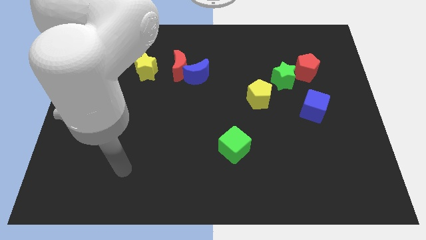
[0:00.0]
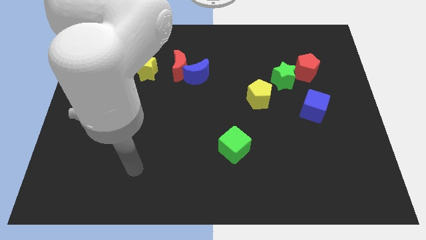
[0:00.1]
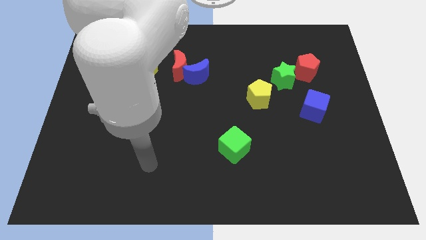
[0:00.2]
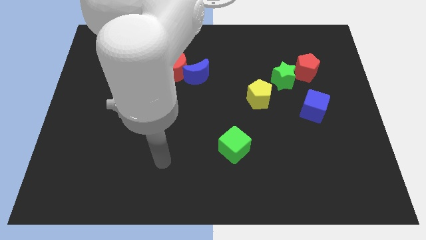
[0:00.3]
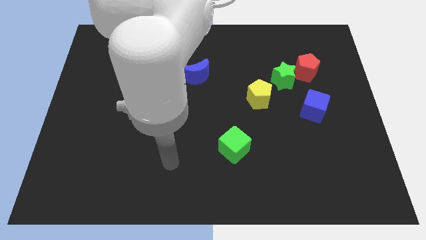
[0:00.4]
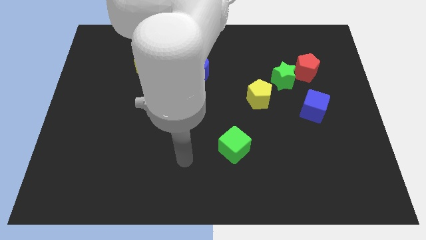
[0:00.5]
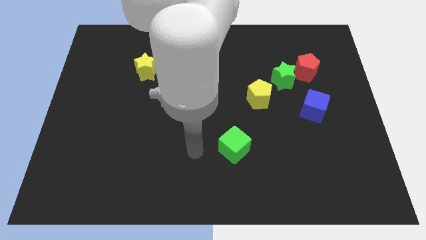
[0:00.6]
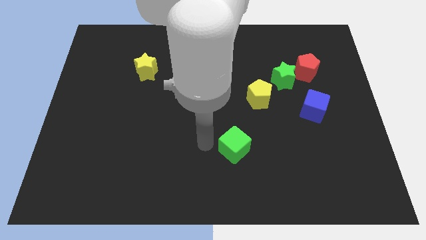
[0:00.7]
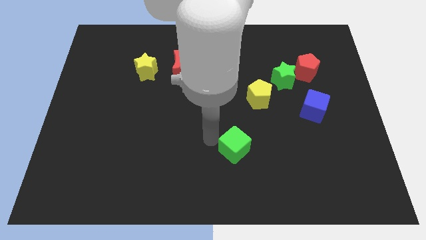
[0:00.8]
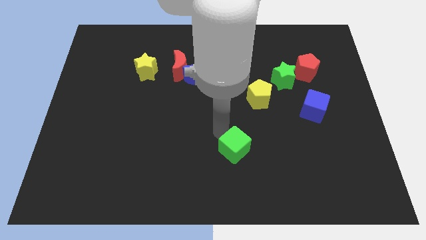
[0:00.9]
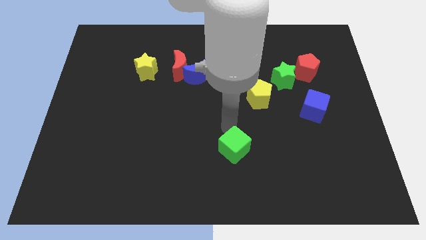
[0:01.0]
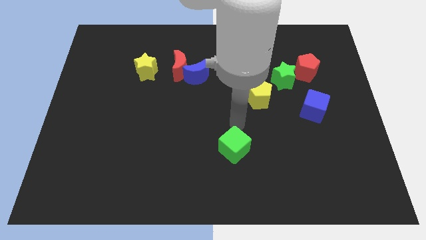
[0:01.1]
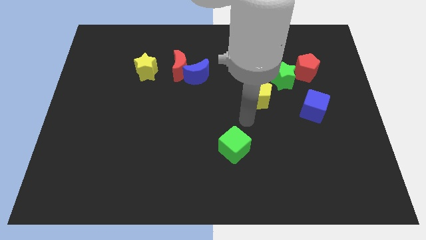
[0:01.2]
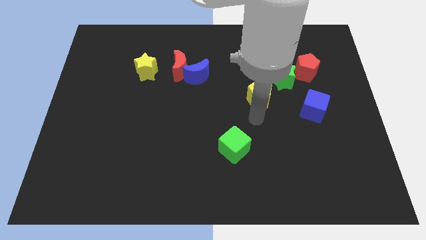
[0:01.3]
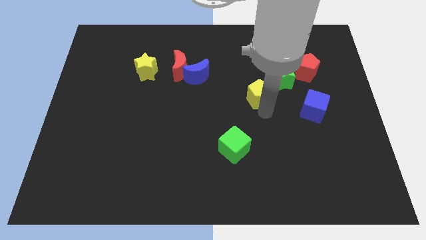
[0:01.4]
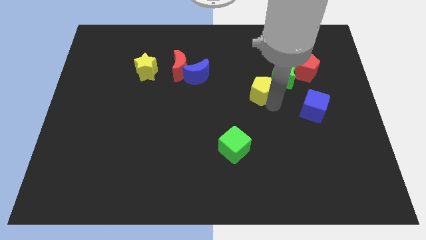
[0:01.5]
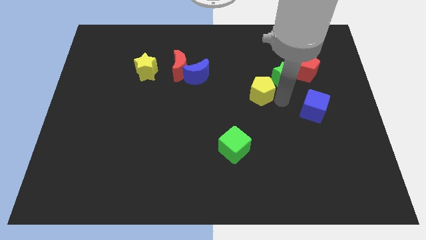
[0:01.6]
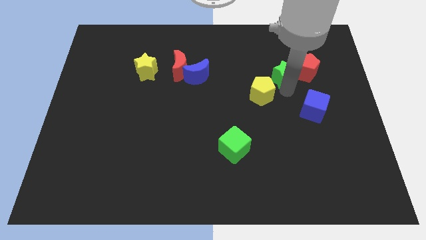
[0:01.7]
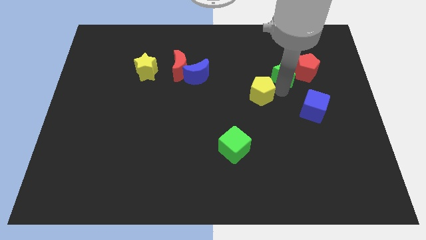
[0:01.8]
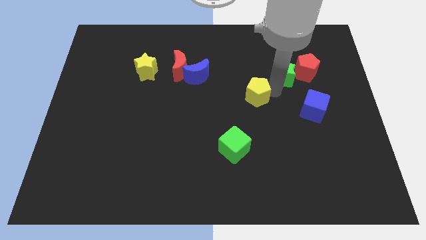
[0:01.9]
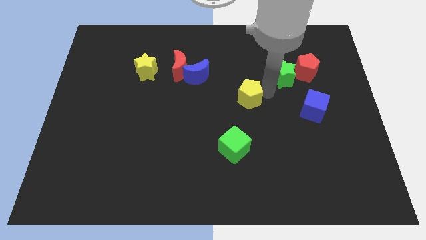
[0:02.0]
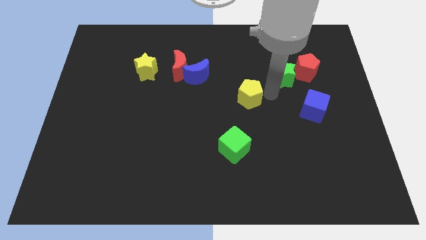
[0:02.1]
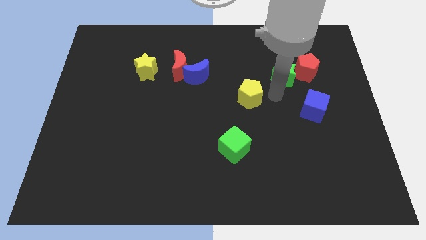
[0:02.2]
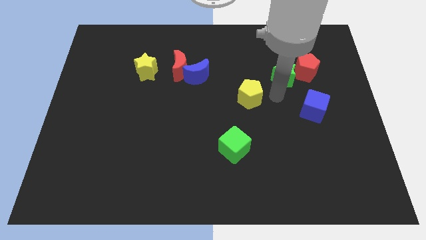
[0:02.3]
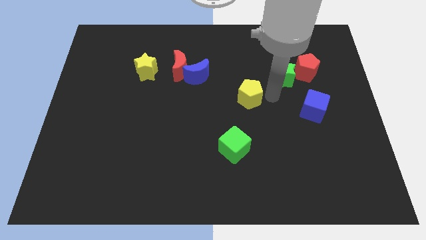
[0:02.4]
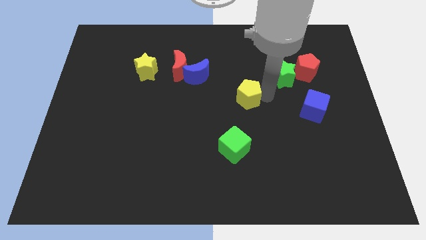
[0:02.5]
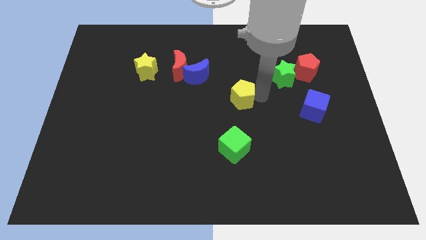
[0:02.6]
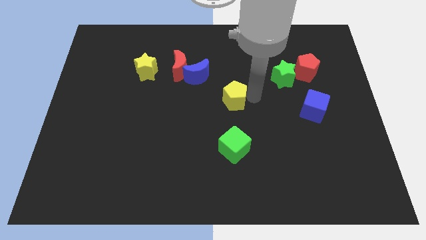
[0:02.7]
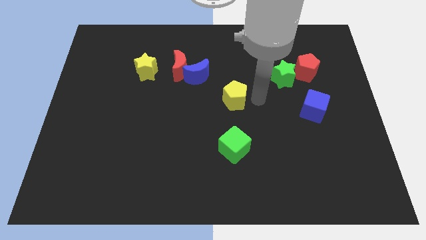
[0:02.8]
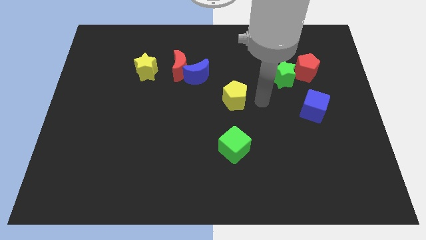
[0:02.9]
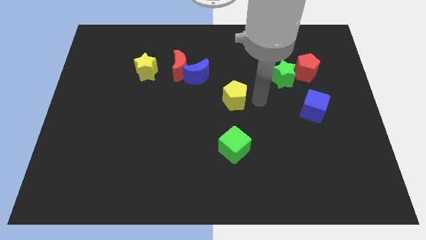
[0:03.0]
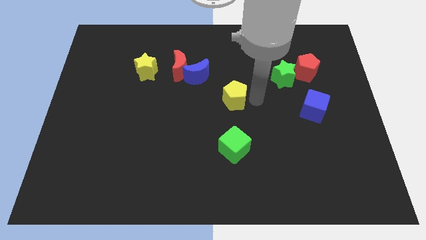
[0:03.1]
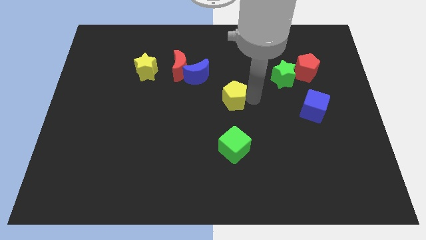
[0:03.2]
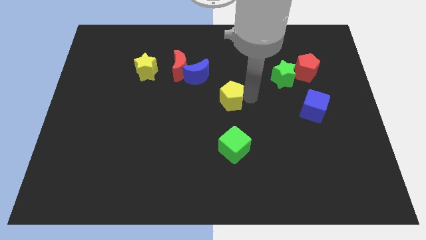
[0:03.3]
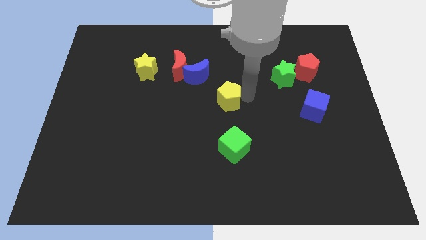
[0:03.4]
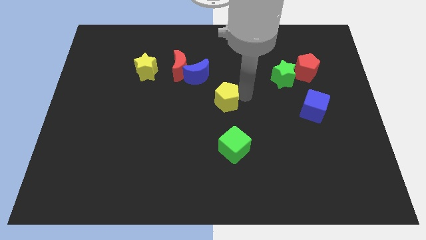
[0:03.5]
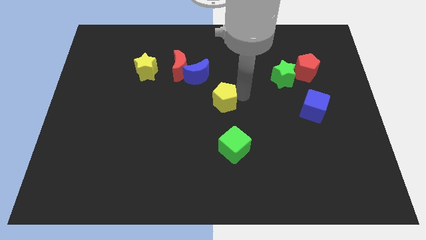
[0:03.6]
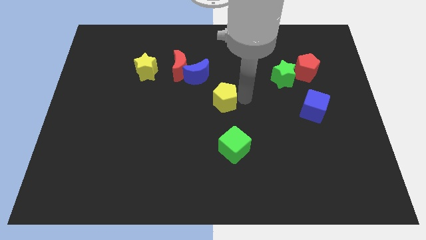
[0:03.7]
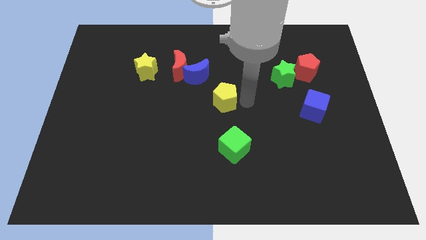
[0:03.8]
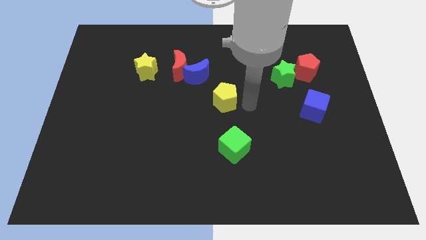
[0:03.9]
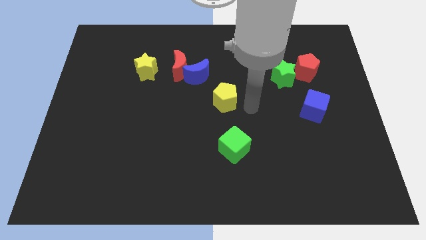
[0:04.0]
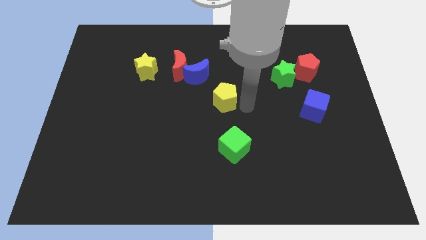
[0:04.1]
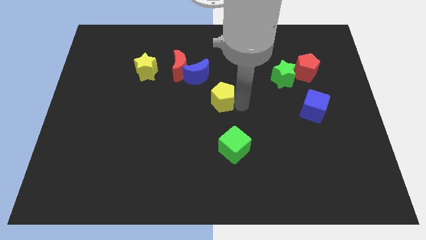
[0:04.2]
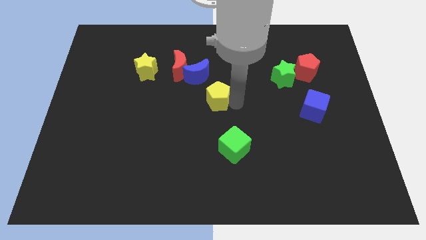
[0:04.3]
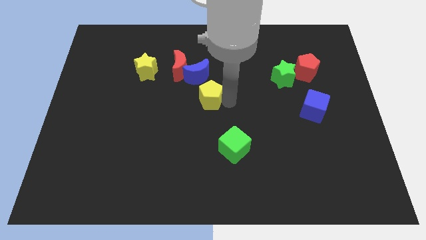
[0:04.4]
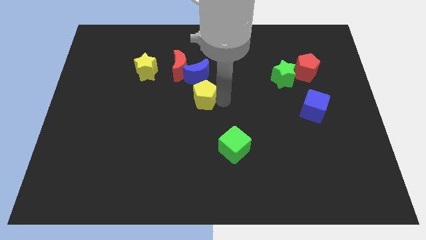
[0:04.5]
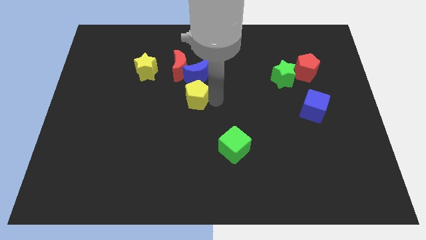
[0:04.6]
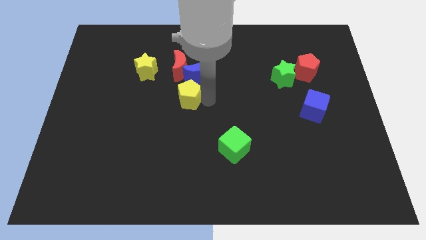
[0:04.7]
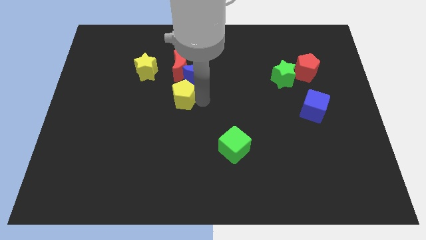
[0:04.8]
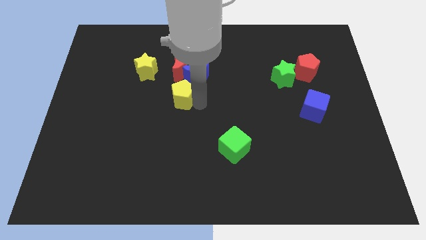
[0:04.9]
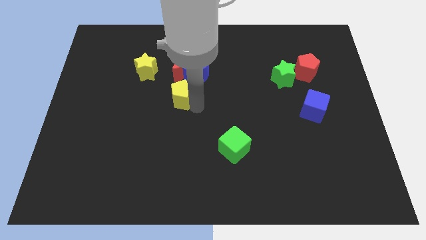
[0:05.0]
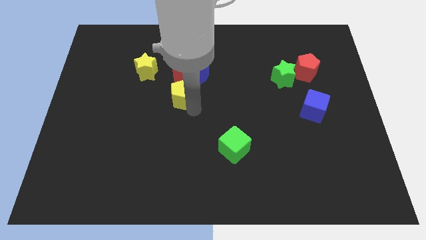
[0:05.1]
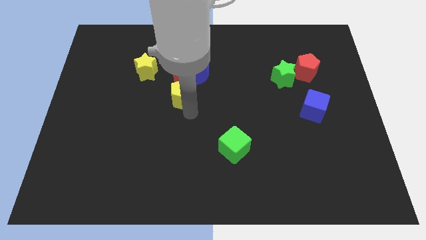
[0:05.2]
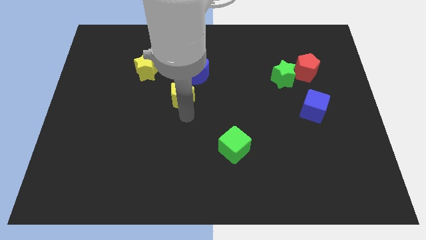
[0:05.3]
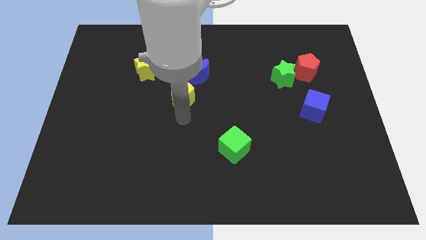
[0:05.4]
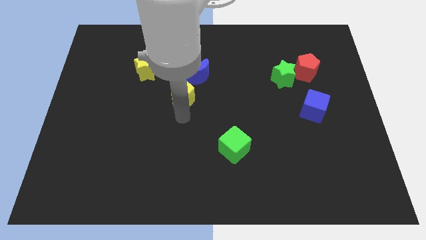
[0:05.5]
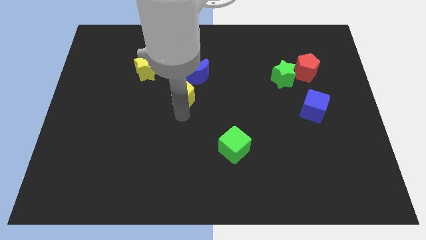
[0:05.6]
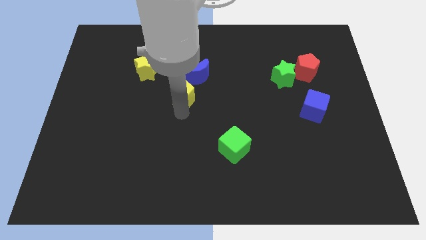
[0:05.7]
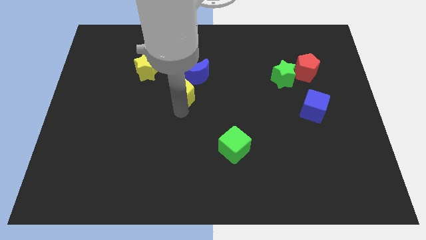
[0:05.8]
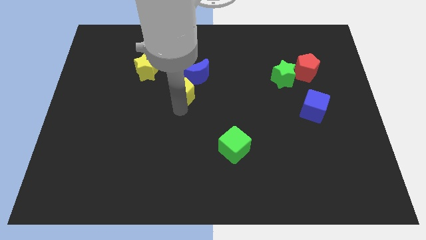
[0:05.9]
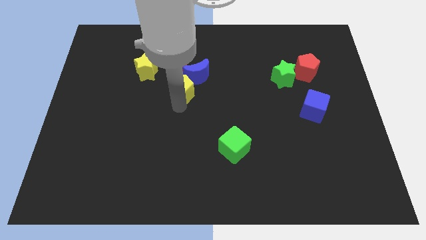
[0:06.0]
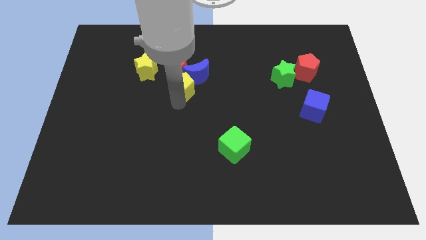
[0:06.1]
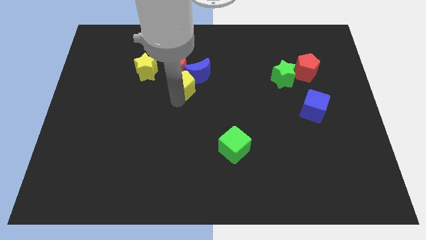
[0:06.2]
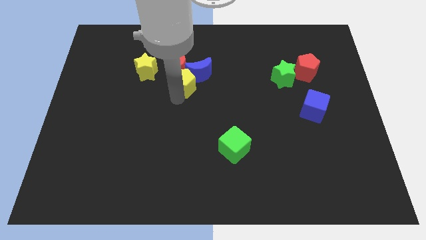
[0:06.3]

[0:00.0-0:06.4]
put the yellow pentagon close to the red moon
